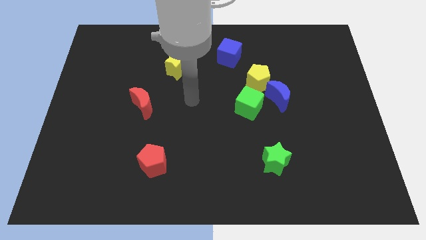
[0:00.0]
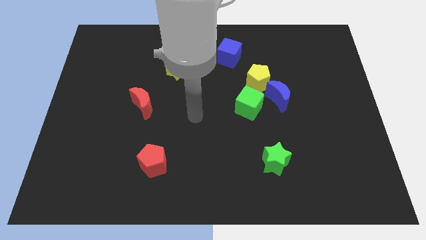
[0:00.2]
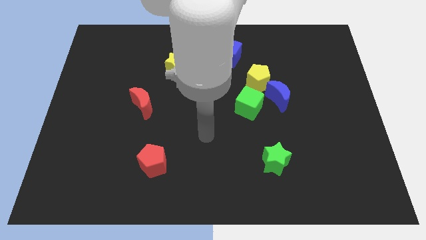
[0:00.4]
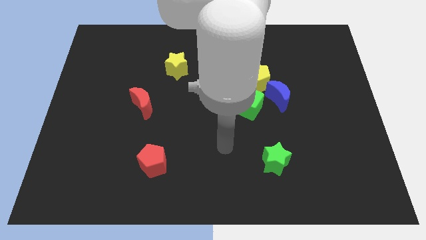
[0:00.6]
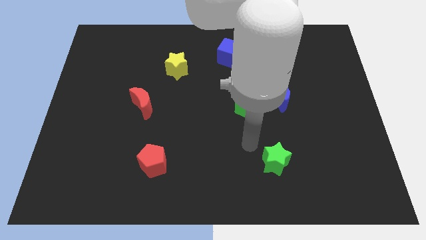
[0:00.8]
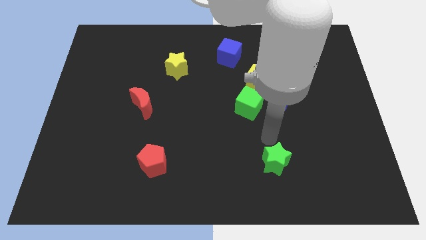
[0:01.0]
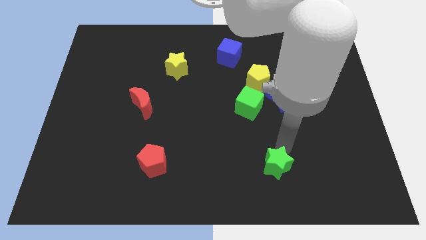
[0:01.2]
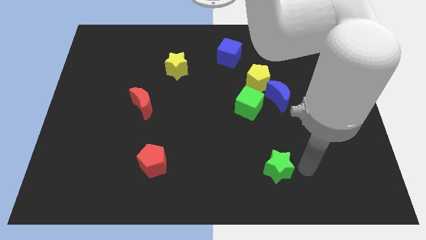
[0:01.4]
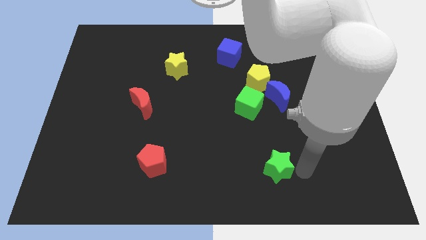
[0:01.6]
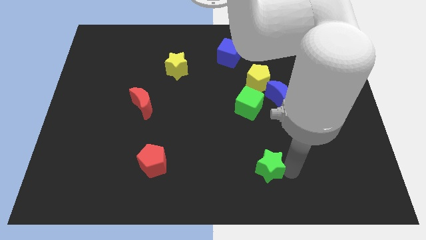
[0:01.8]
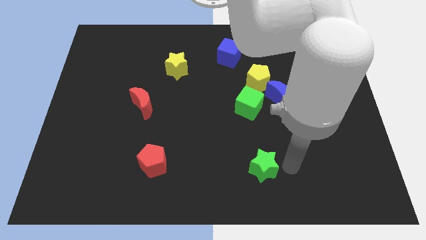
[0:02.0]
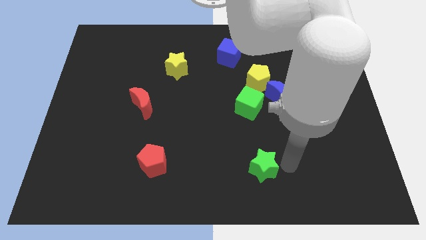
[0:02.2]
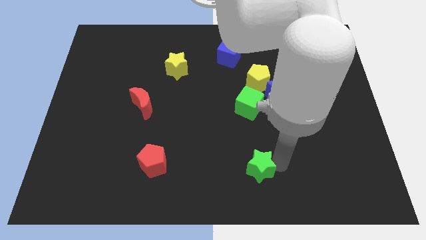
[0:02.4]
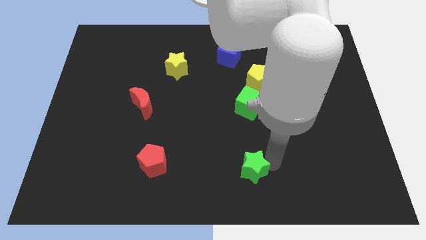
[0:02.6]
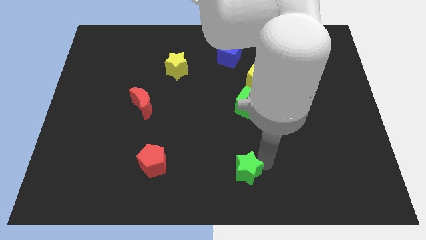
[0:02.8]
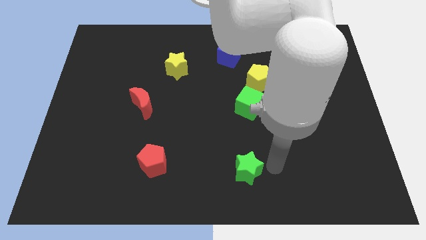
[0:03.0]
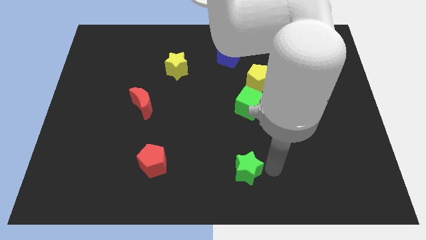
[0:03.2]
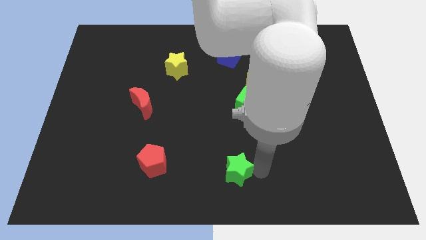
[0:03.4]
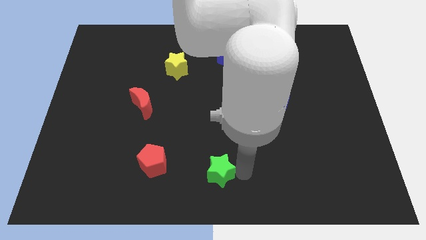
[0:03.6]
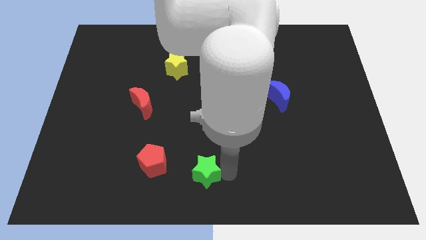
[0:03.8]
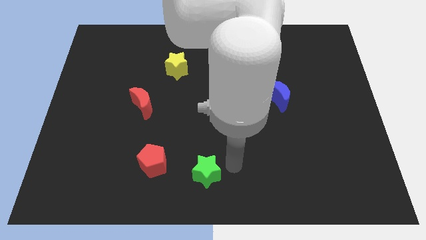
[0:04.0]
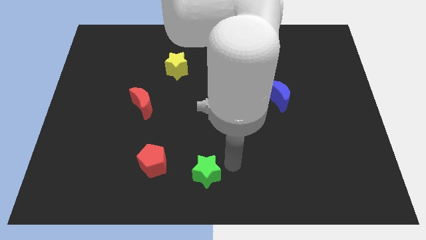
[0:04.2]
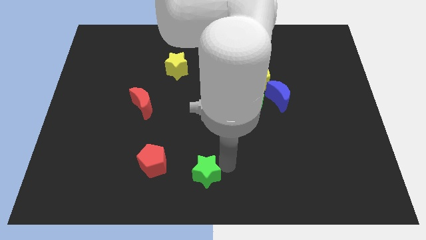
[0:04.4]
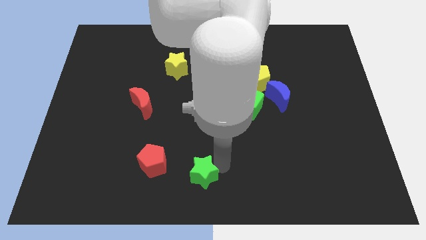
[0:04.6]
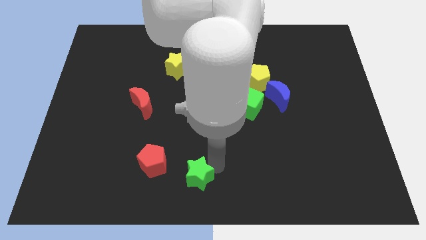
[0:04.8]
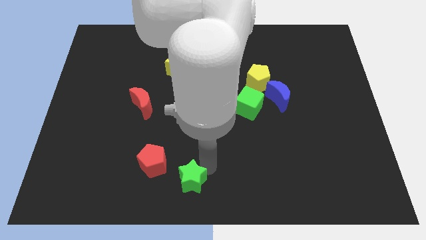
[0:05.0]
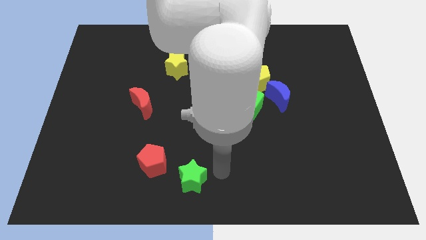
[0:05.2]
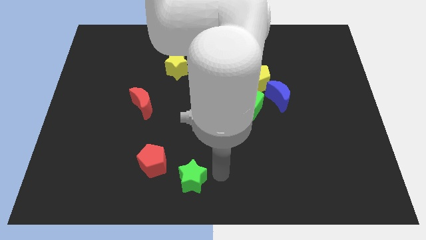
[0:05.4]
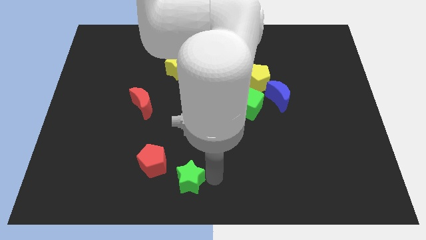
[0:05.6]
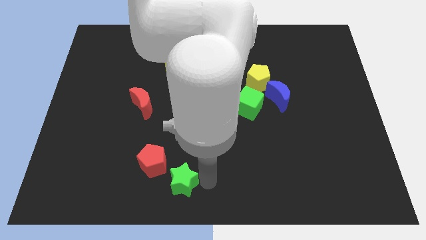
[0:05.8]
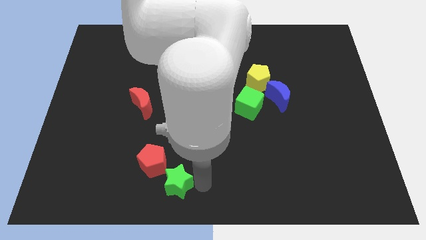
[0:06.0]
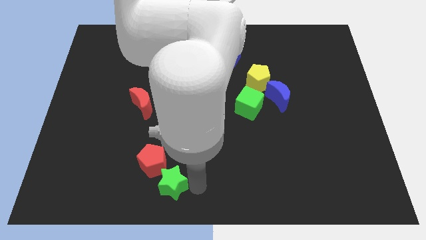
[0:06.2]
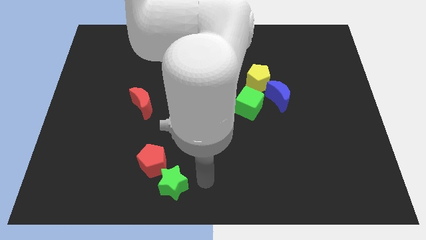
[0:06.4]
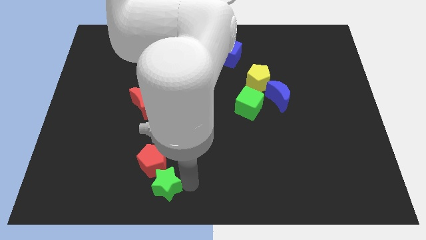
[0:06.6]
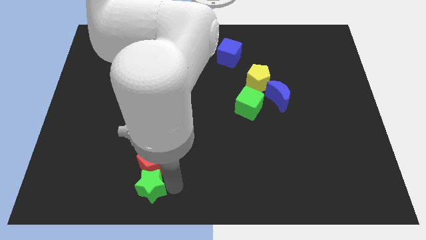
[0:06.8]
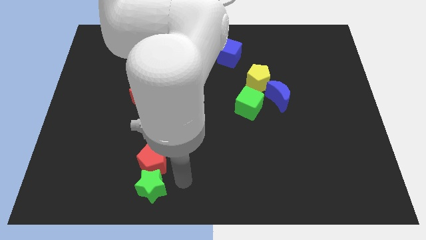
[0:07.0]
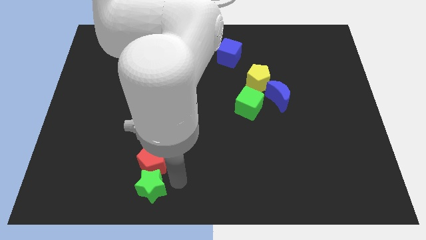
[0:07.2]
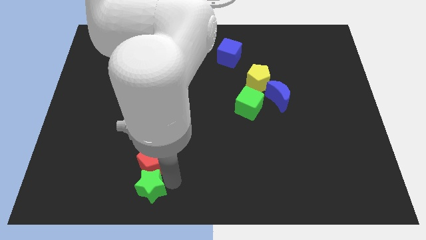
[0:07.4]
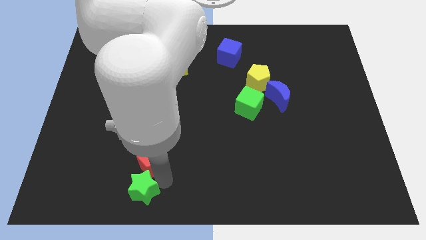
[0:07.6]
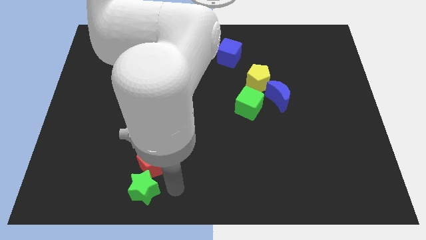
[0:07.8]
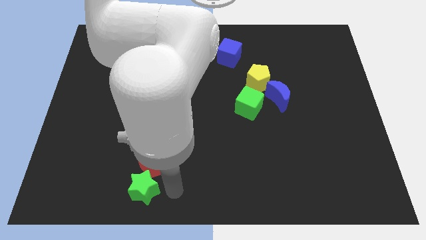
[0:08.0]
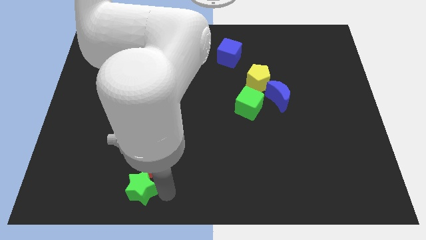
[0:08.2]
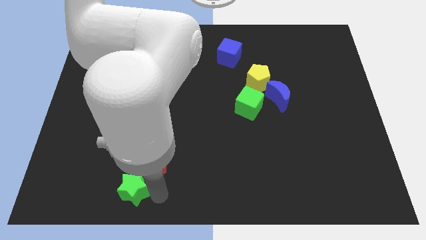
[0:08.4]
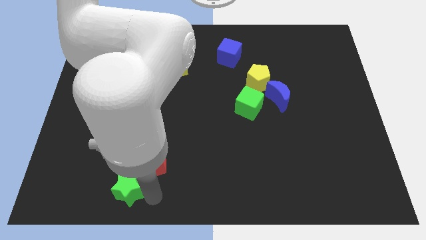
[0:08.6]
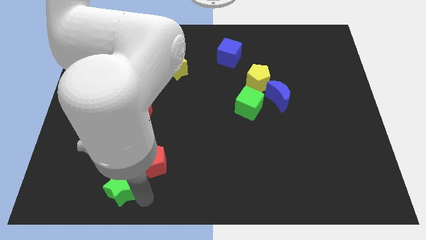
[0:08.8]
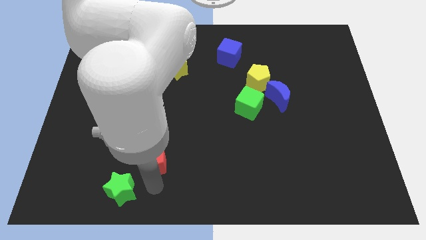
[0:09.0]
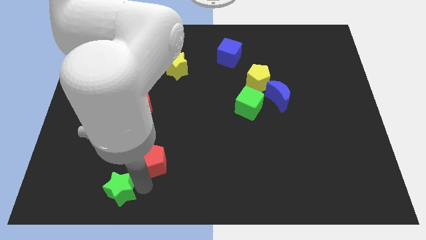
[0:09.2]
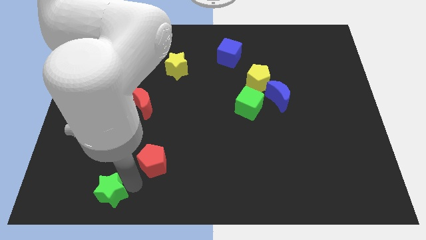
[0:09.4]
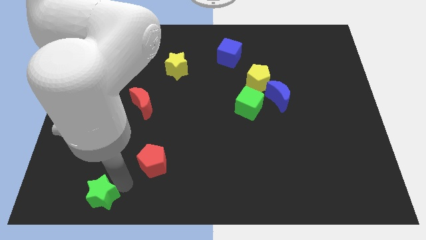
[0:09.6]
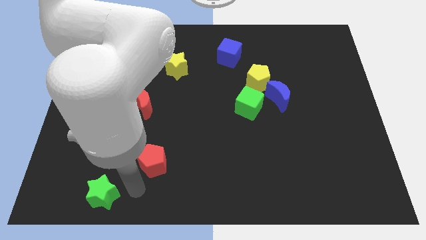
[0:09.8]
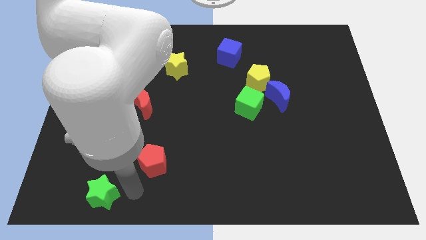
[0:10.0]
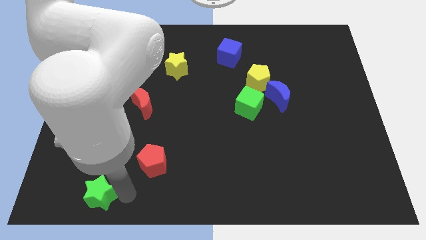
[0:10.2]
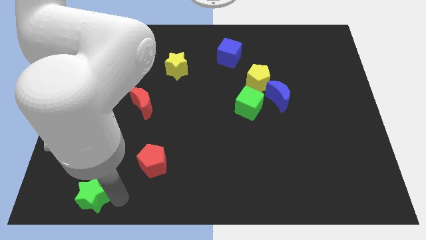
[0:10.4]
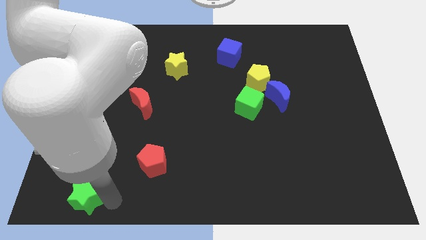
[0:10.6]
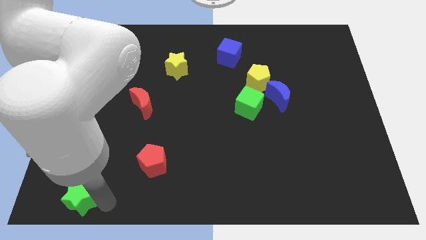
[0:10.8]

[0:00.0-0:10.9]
move the green star to the bottom left
